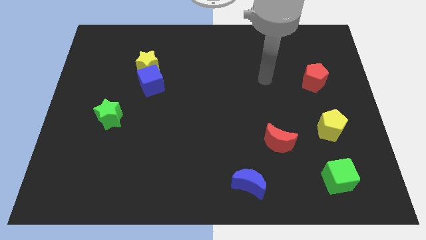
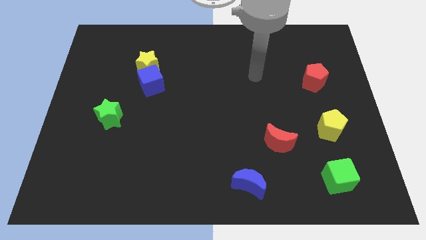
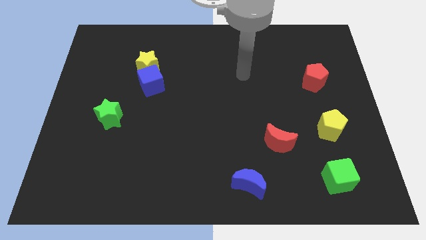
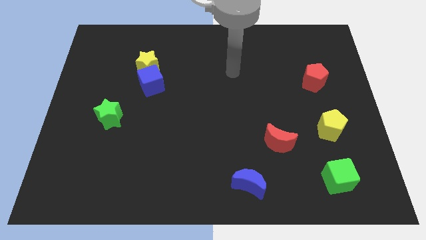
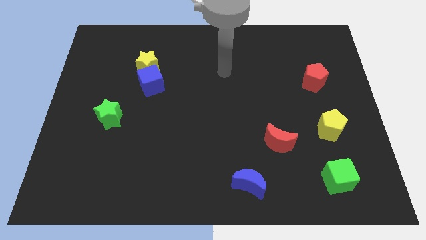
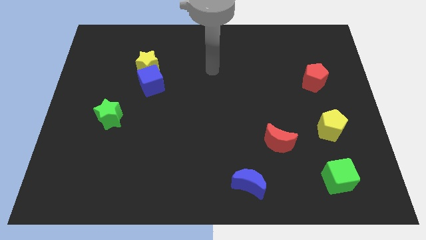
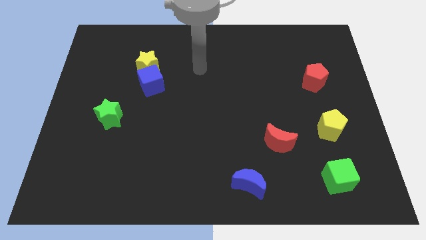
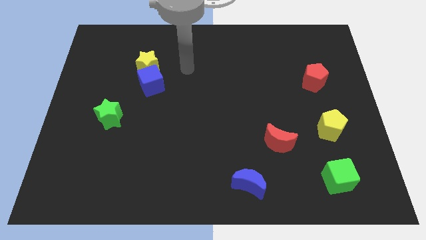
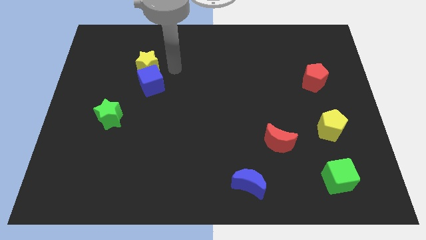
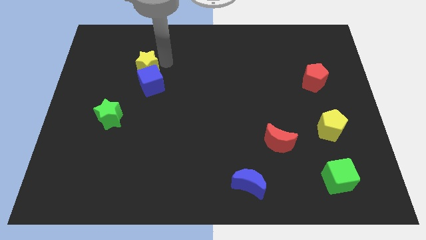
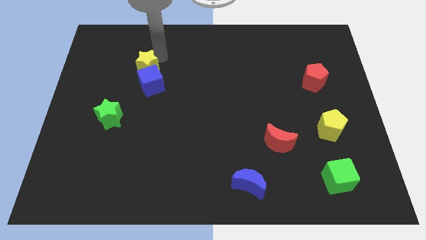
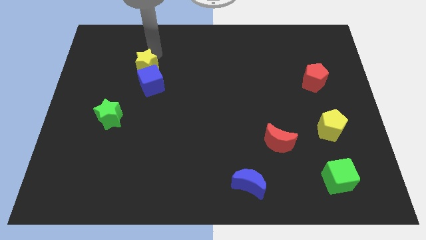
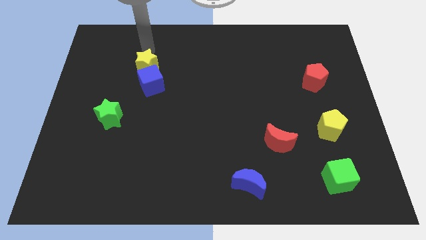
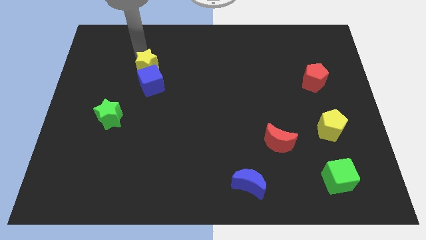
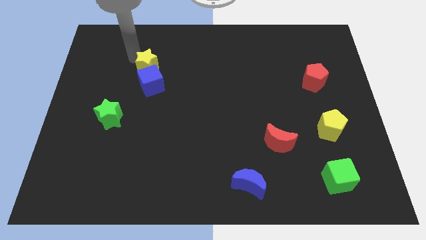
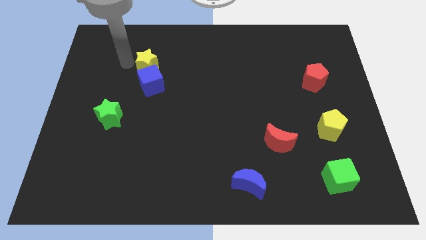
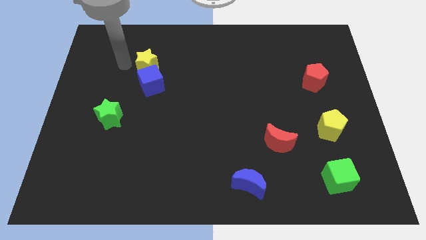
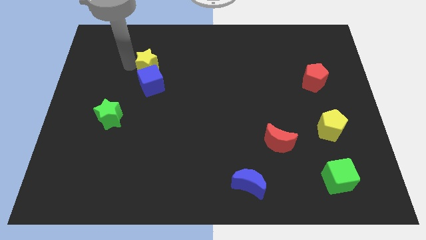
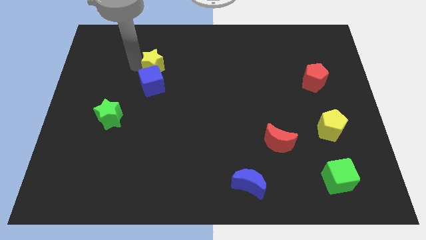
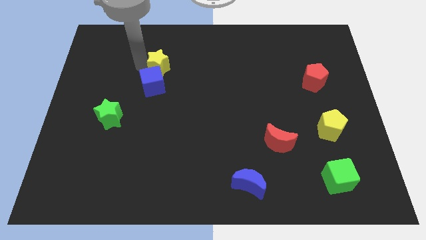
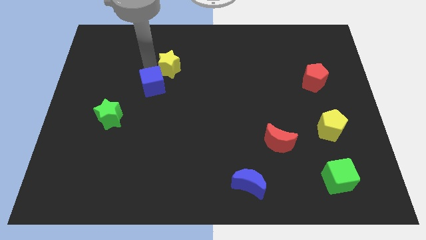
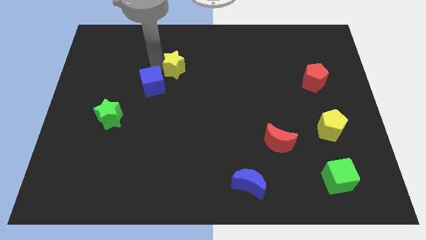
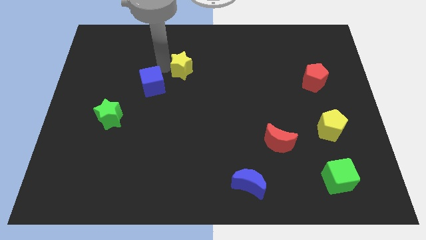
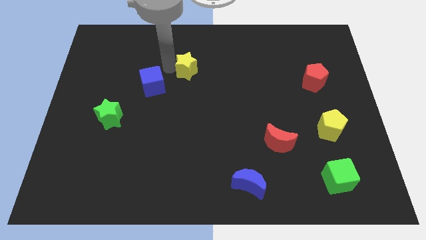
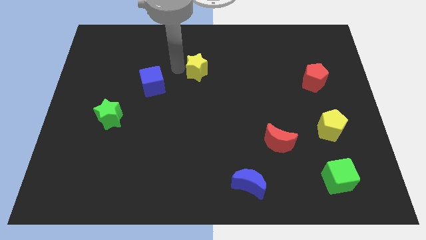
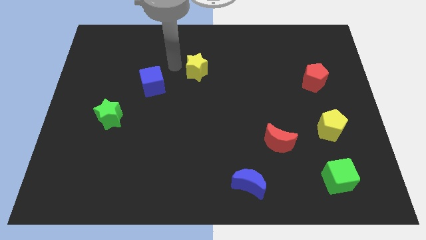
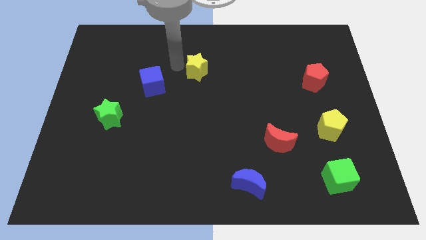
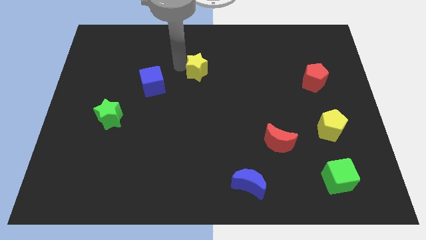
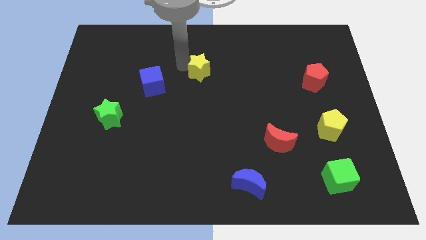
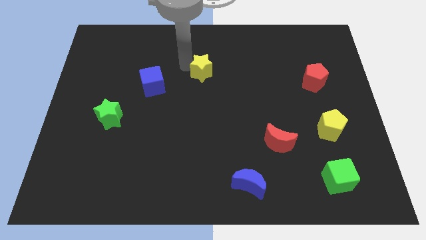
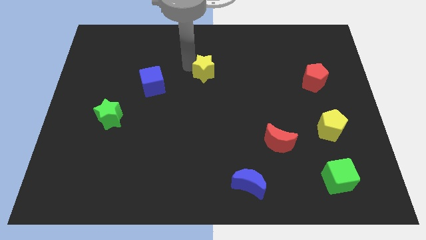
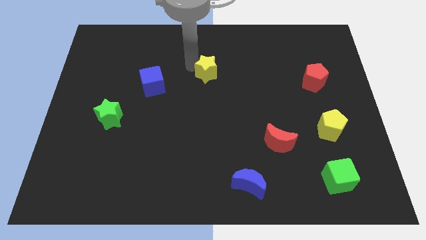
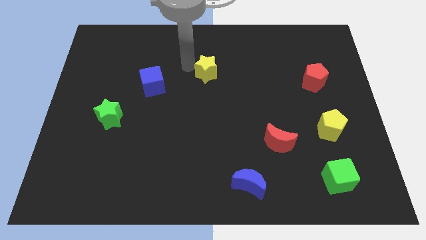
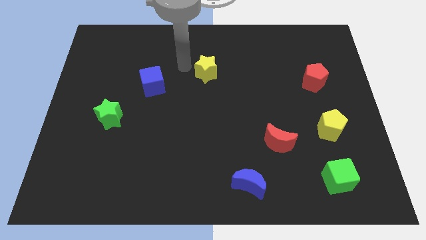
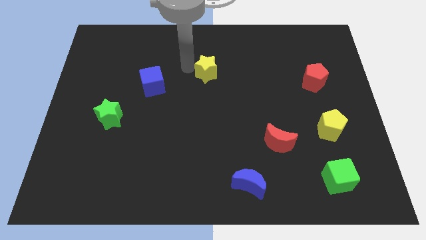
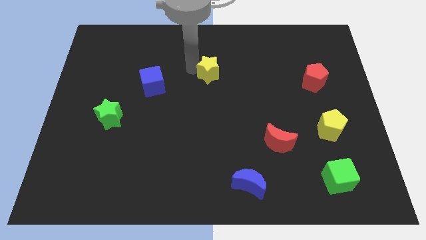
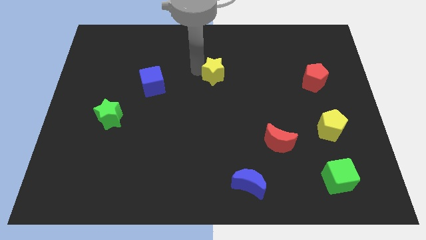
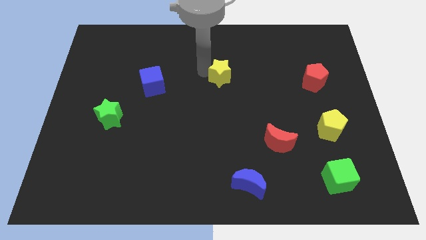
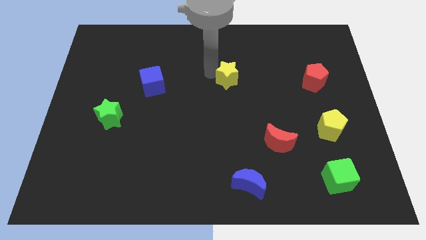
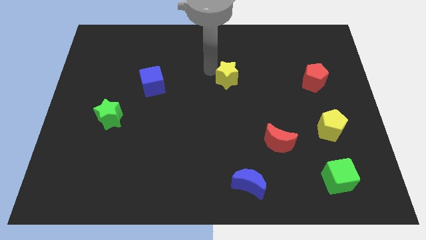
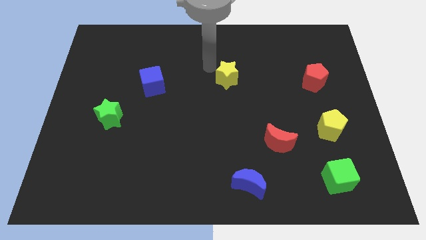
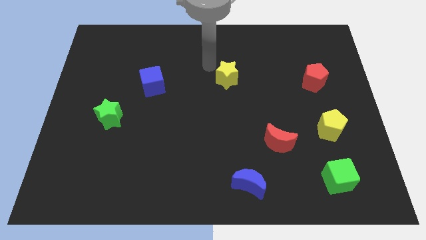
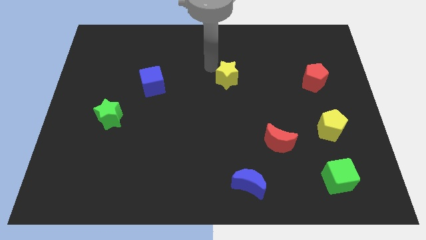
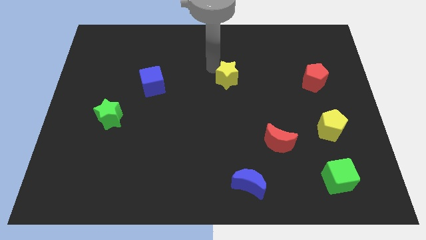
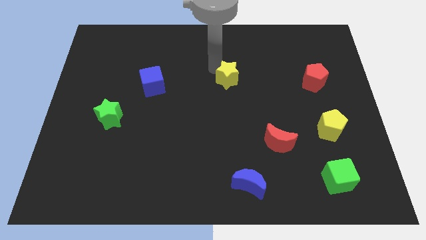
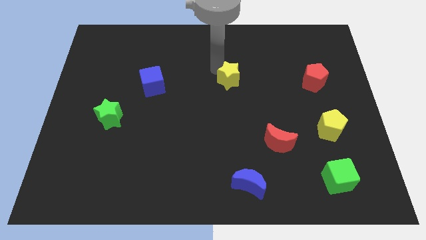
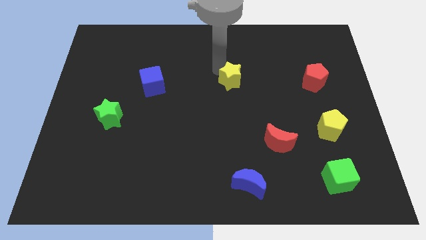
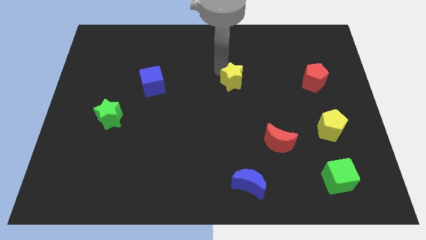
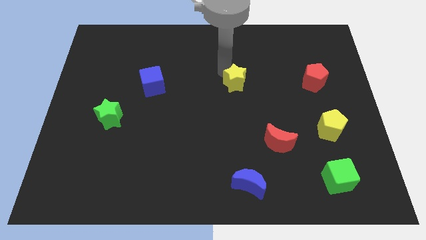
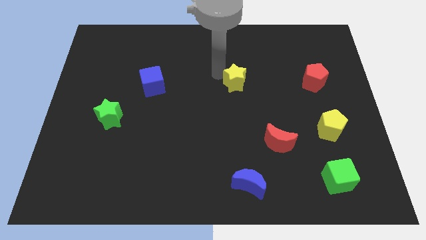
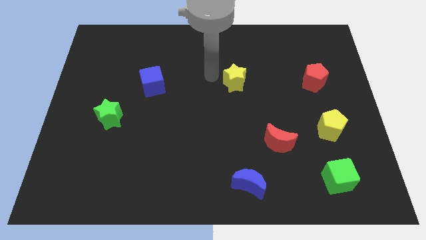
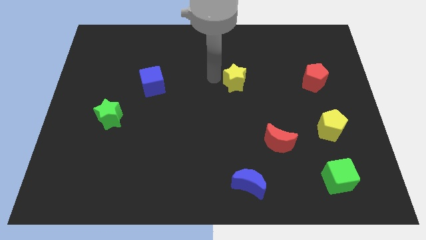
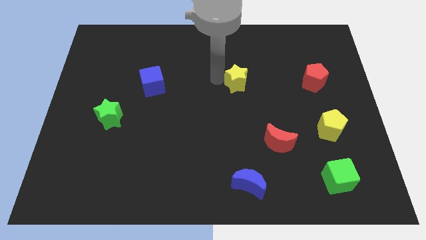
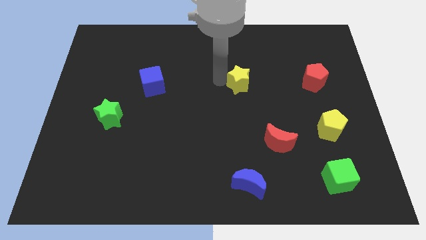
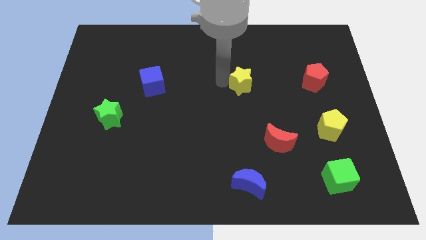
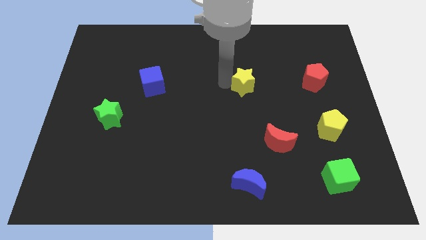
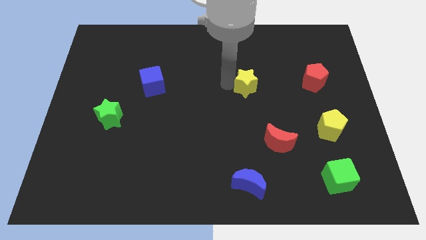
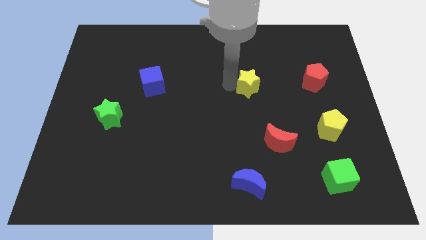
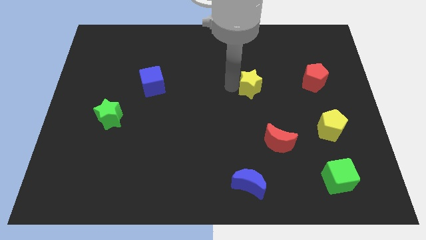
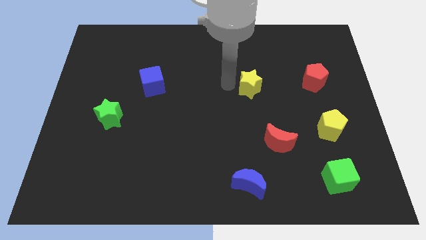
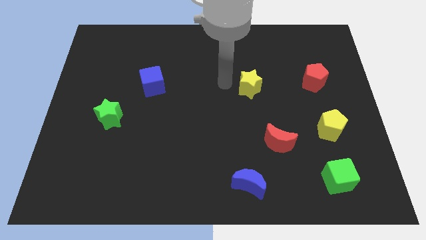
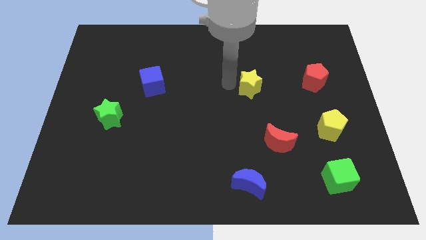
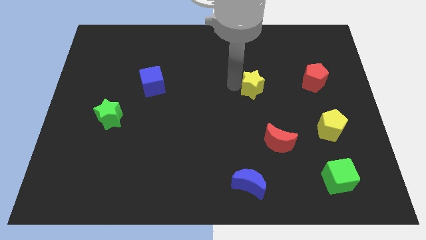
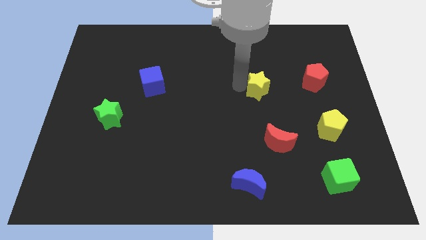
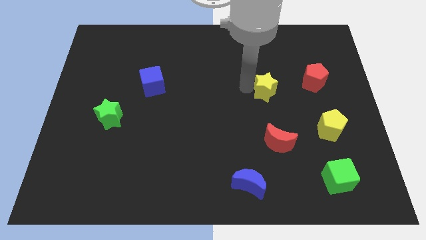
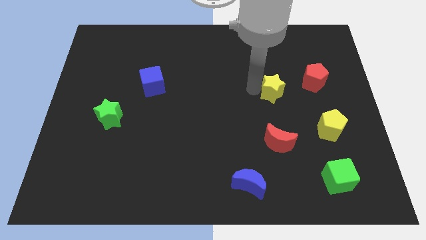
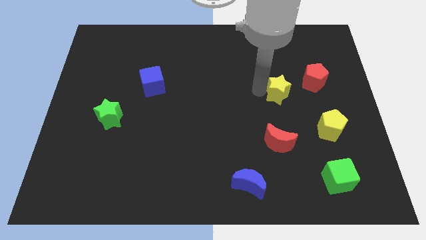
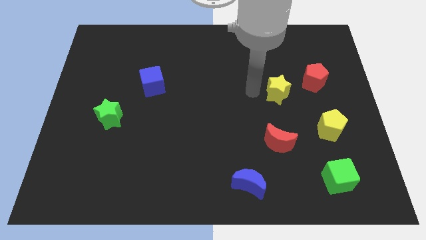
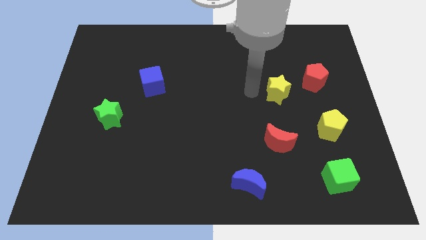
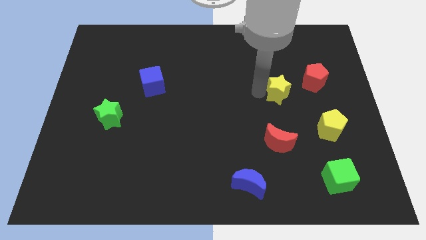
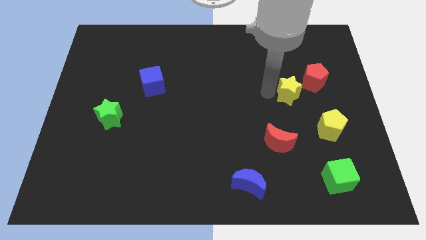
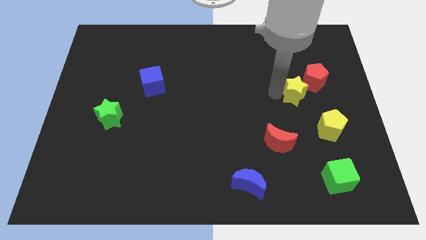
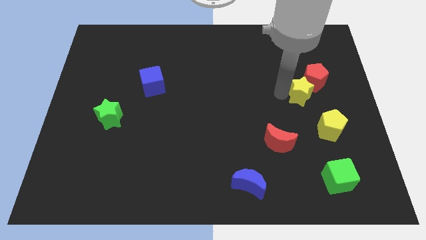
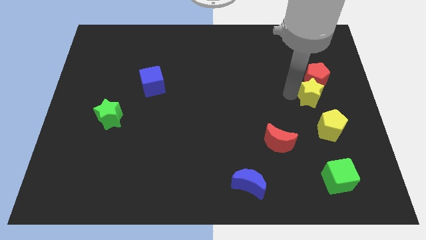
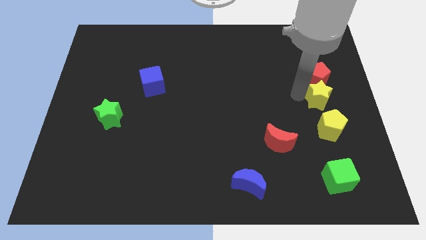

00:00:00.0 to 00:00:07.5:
put the yellow star to the right side
